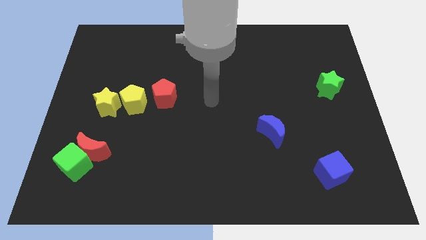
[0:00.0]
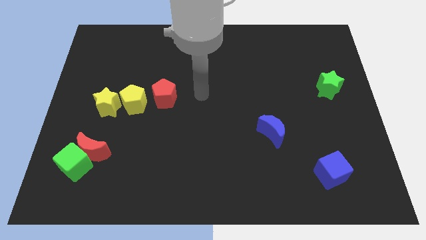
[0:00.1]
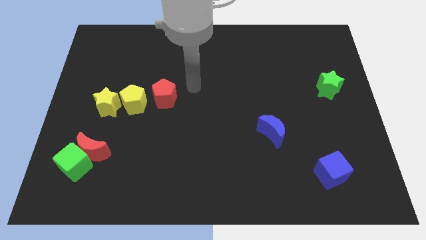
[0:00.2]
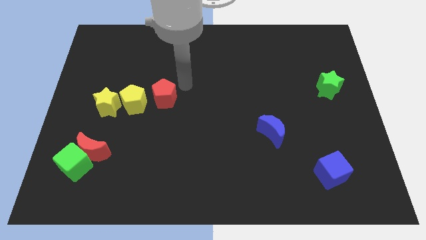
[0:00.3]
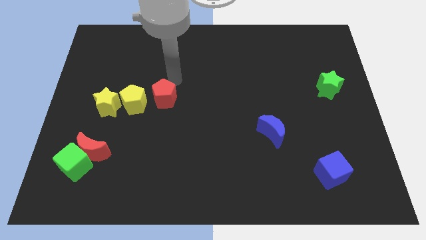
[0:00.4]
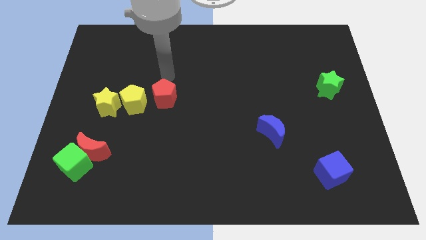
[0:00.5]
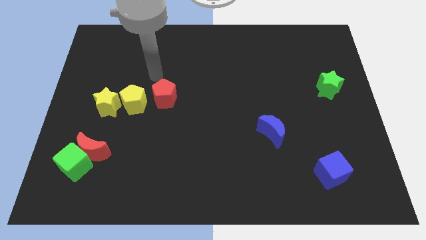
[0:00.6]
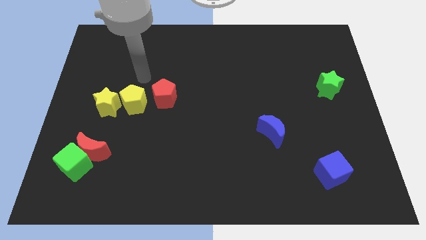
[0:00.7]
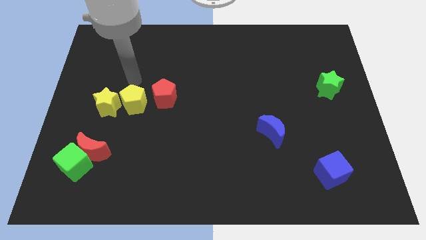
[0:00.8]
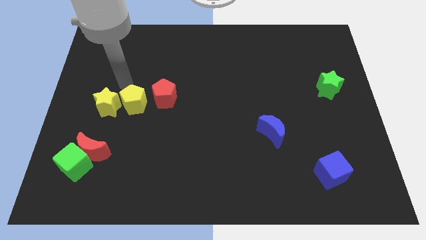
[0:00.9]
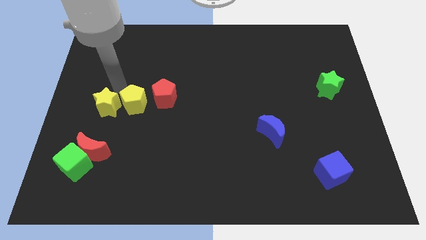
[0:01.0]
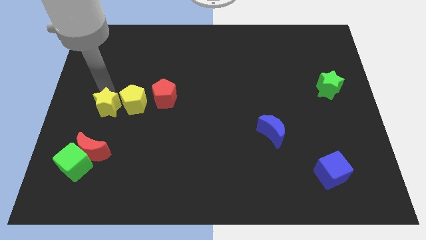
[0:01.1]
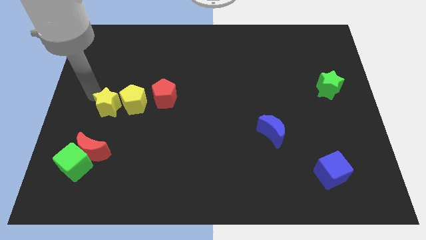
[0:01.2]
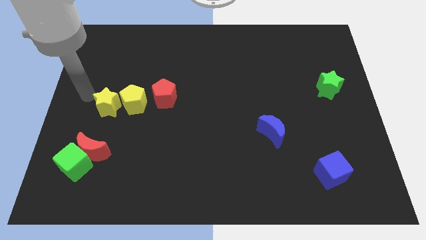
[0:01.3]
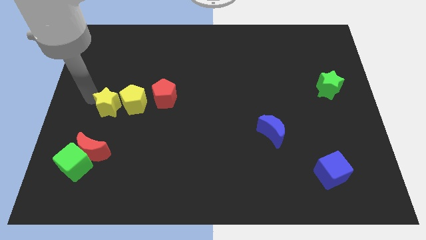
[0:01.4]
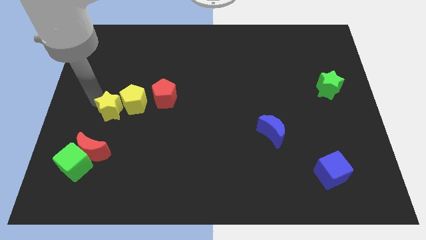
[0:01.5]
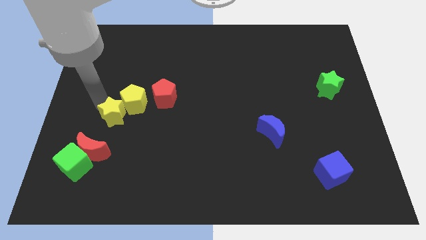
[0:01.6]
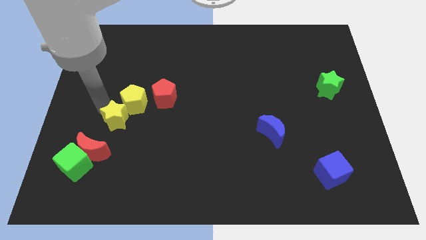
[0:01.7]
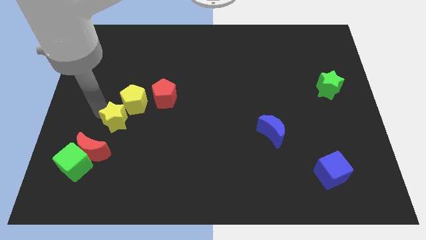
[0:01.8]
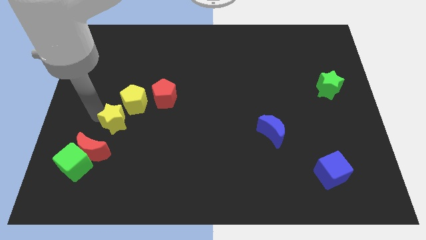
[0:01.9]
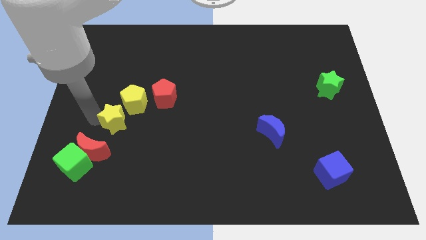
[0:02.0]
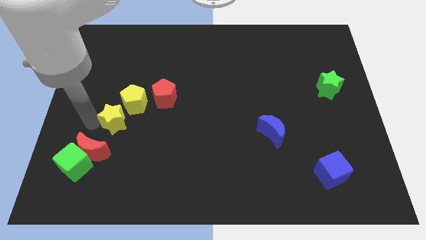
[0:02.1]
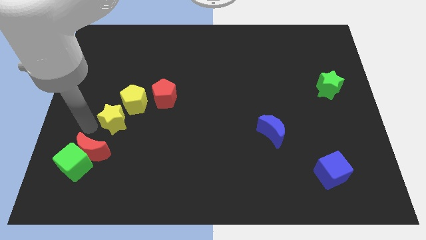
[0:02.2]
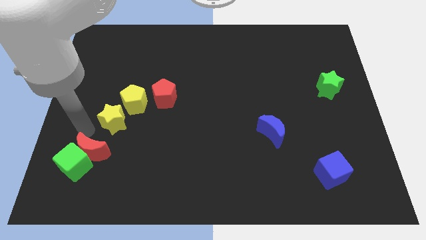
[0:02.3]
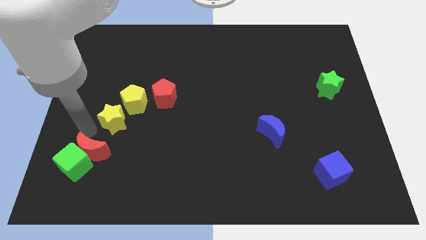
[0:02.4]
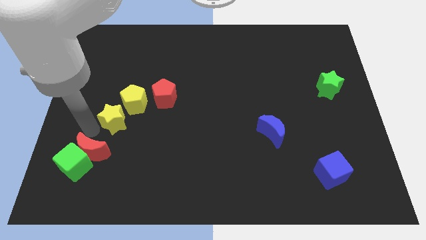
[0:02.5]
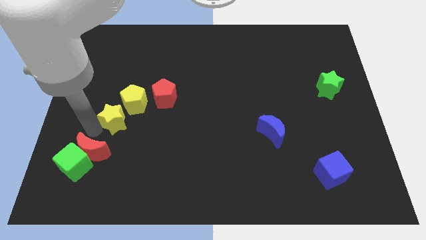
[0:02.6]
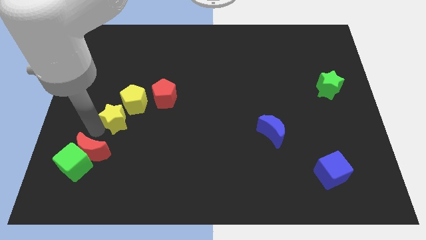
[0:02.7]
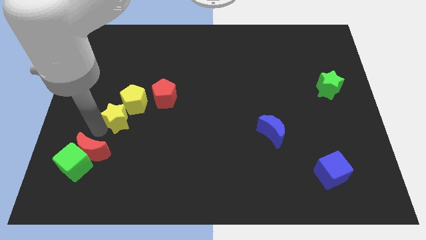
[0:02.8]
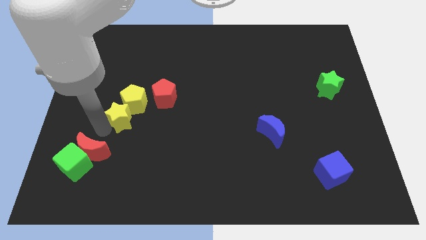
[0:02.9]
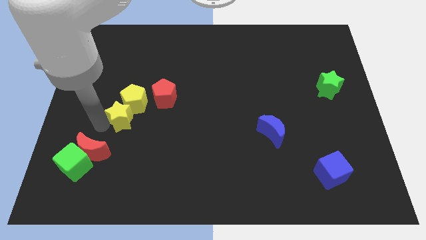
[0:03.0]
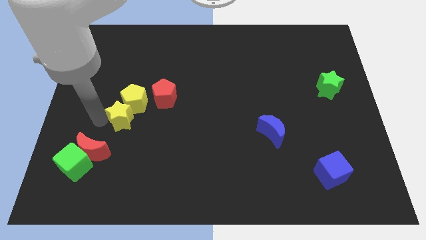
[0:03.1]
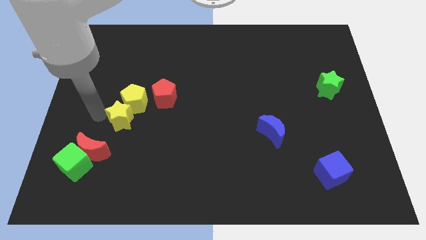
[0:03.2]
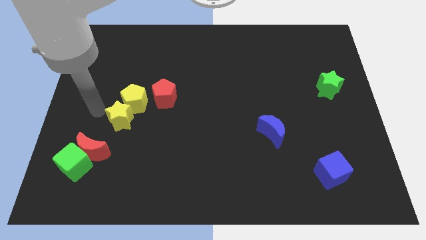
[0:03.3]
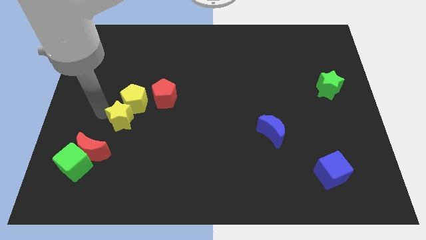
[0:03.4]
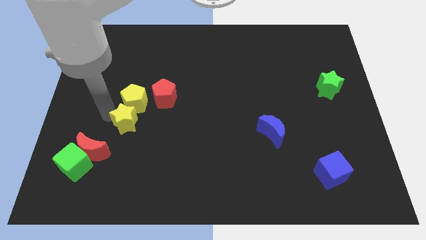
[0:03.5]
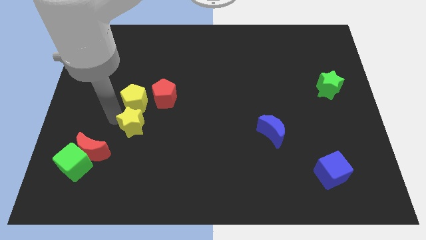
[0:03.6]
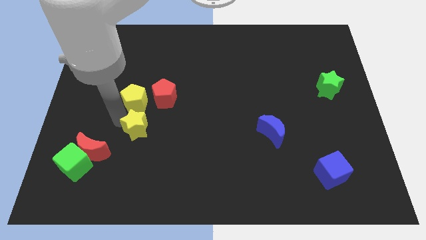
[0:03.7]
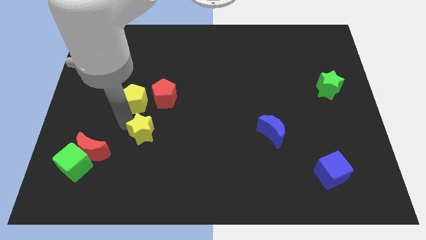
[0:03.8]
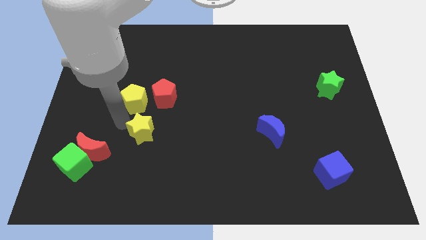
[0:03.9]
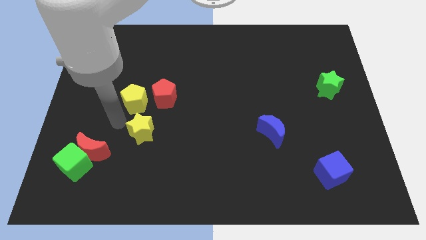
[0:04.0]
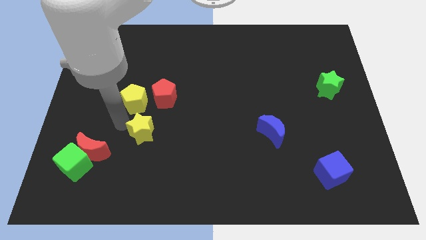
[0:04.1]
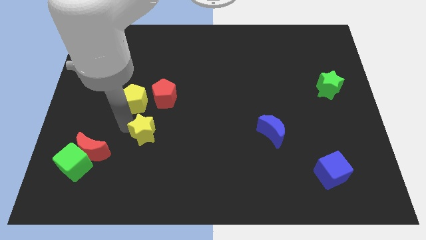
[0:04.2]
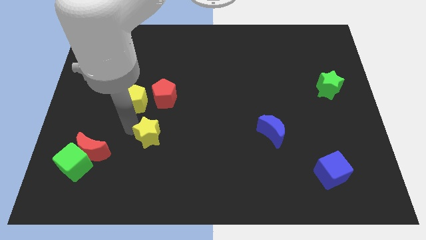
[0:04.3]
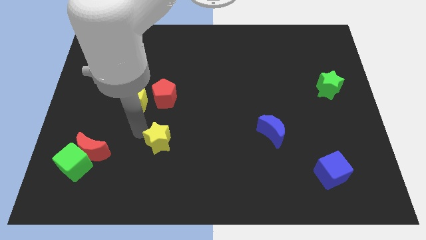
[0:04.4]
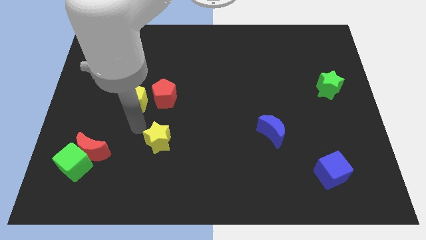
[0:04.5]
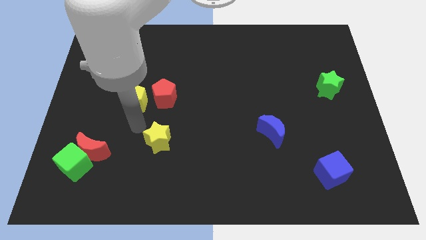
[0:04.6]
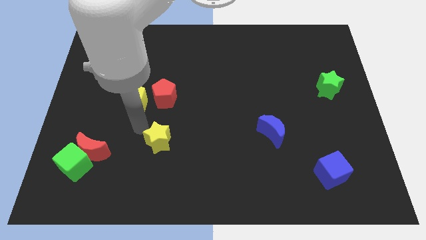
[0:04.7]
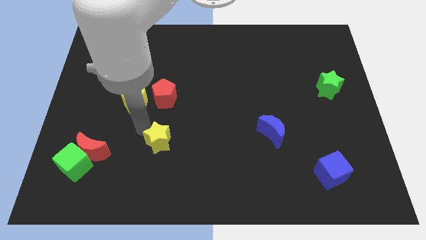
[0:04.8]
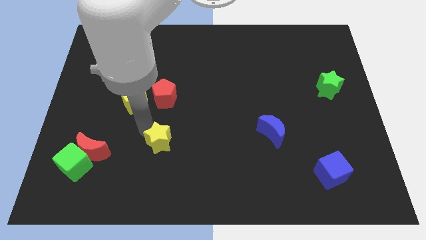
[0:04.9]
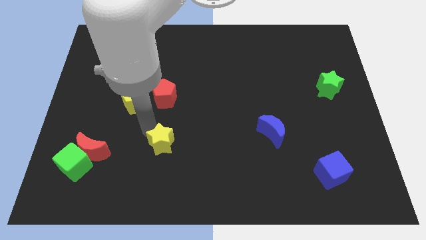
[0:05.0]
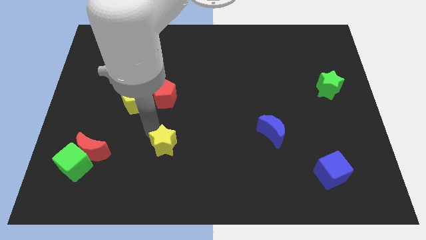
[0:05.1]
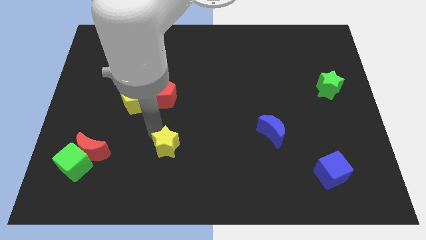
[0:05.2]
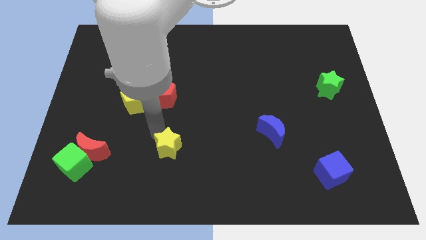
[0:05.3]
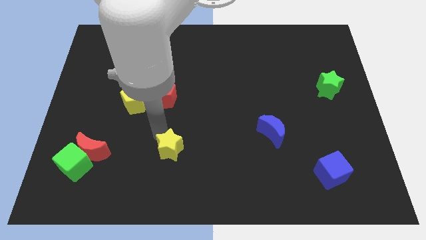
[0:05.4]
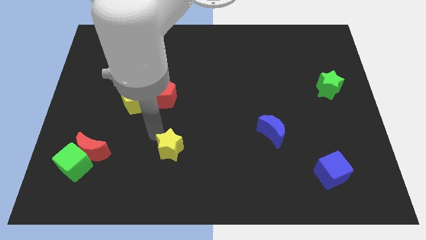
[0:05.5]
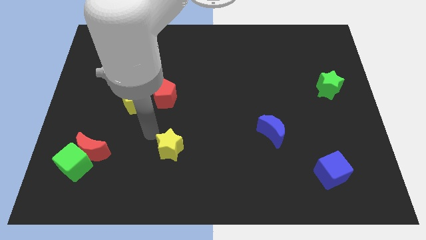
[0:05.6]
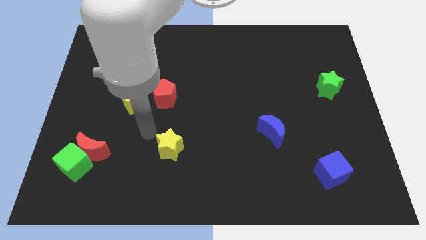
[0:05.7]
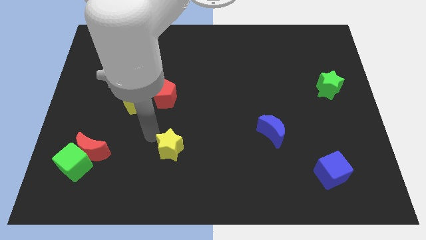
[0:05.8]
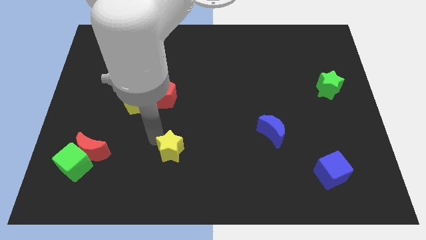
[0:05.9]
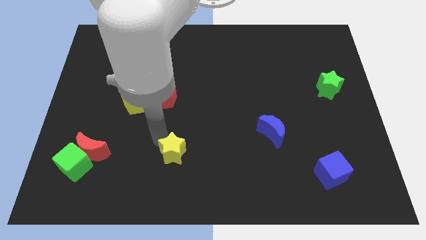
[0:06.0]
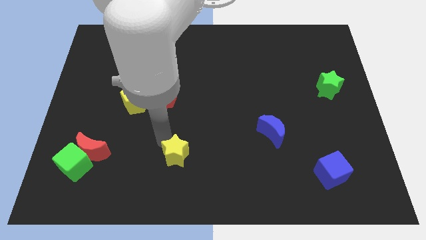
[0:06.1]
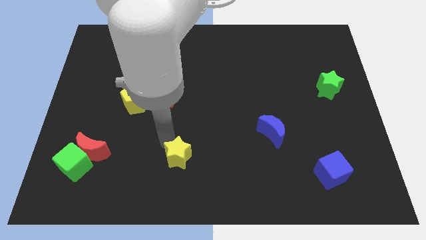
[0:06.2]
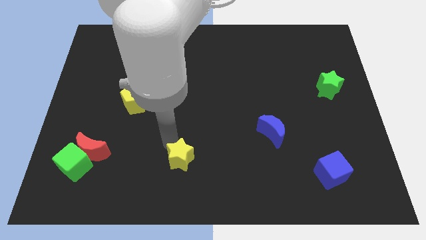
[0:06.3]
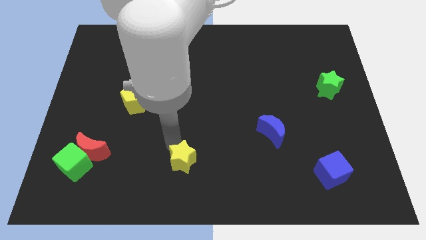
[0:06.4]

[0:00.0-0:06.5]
move the yellow star to the bottom

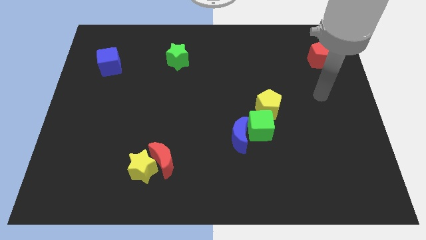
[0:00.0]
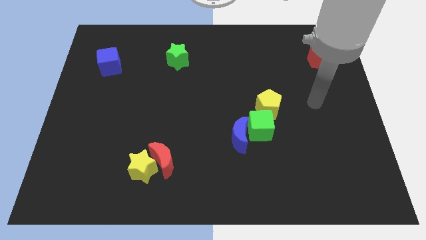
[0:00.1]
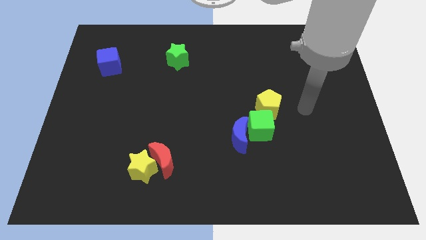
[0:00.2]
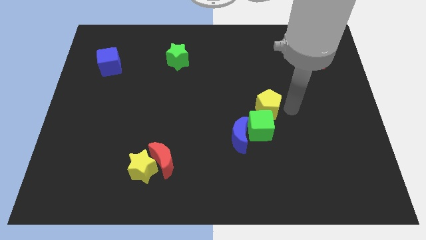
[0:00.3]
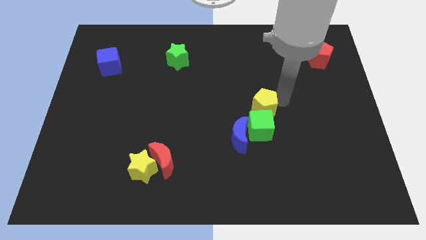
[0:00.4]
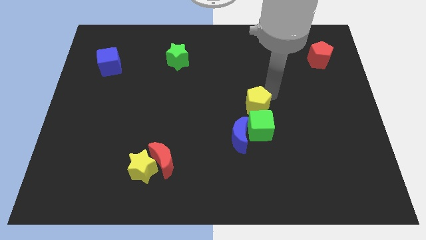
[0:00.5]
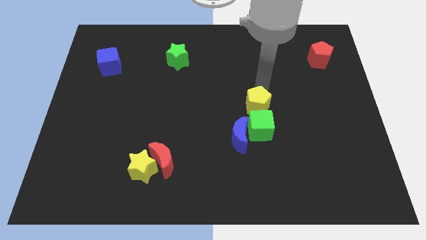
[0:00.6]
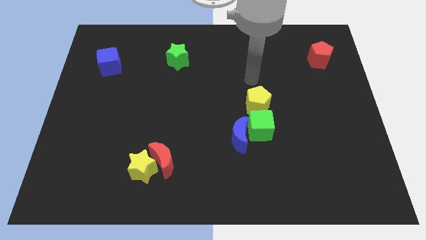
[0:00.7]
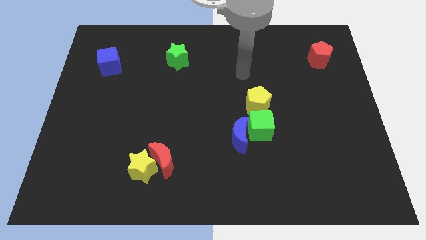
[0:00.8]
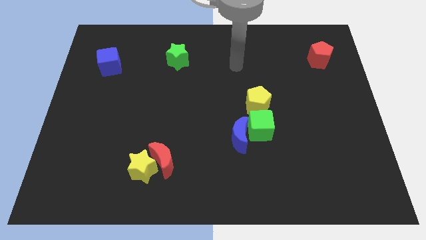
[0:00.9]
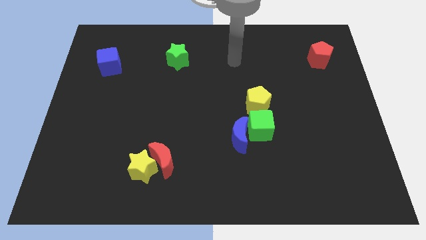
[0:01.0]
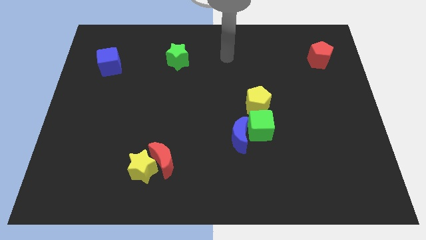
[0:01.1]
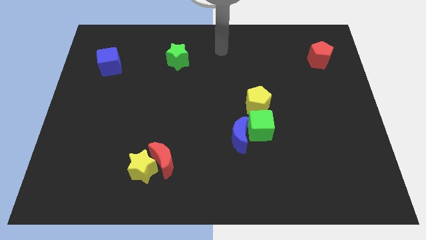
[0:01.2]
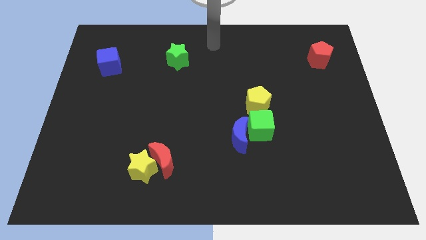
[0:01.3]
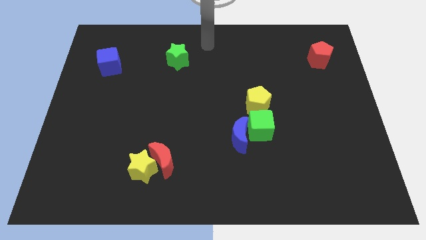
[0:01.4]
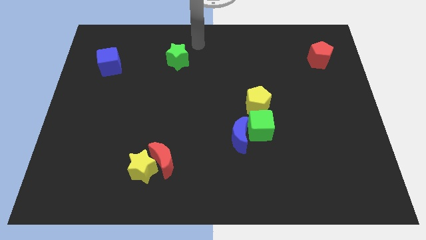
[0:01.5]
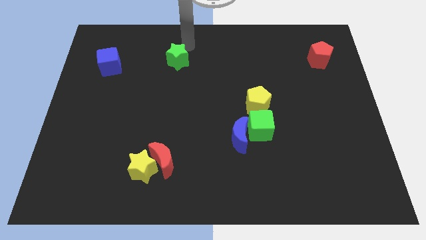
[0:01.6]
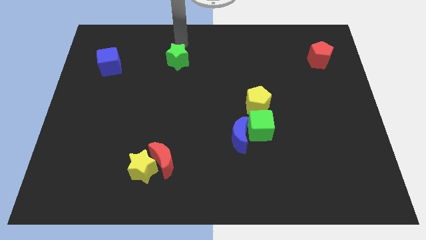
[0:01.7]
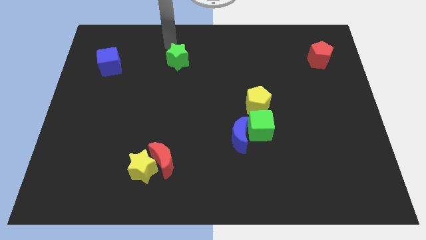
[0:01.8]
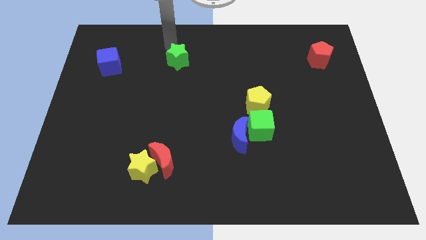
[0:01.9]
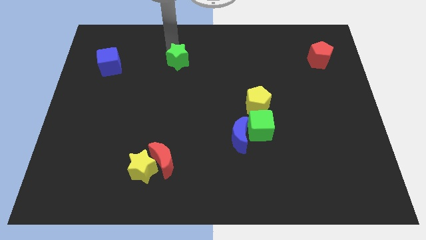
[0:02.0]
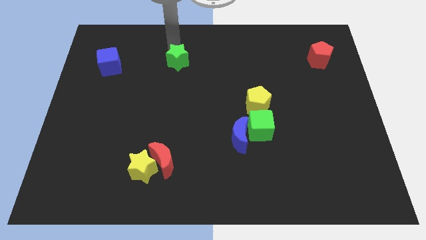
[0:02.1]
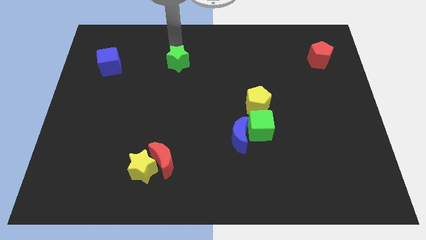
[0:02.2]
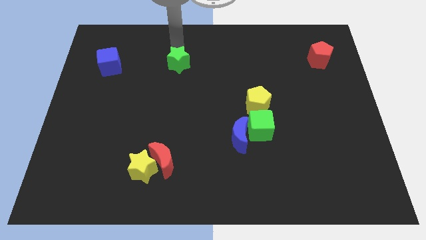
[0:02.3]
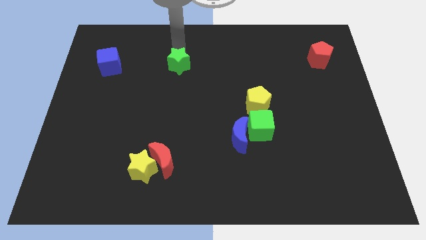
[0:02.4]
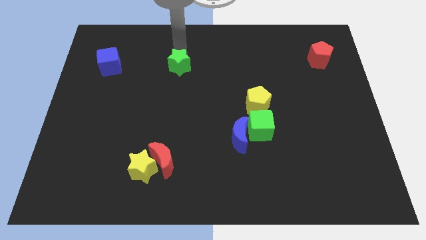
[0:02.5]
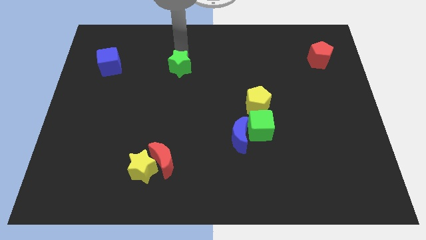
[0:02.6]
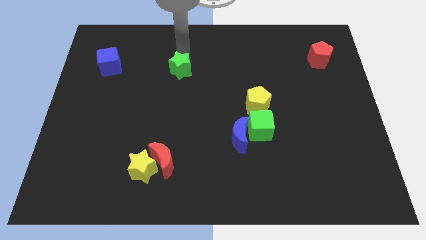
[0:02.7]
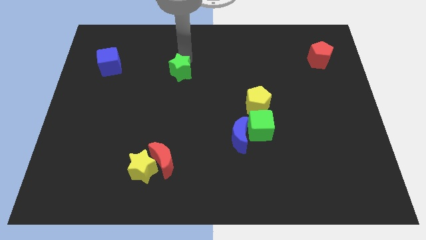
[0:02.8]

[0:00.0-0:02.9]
put the green star to the center of the board
